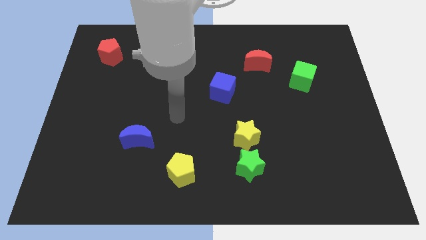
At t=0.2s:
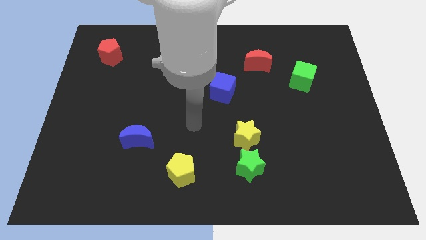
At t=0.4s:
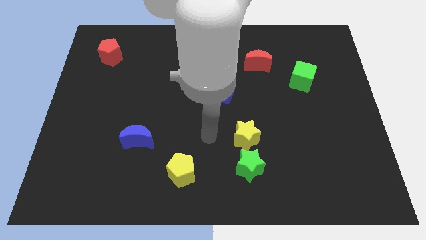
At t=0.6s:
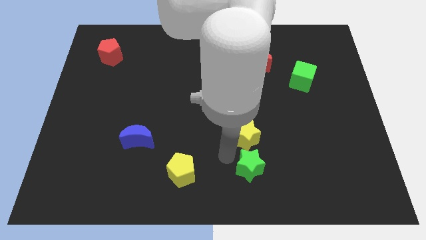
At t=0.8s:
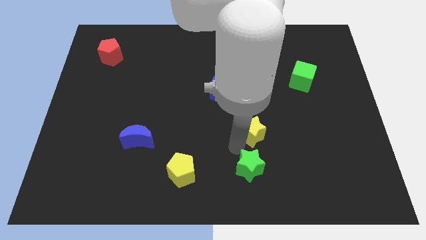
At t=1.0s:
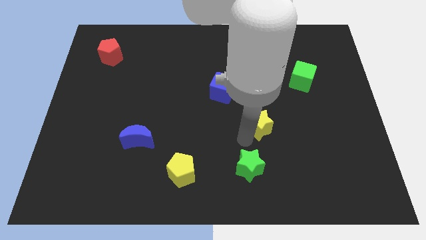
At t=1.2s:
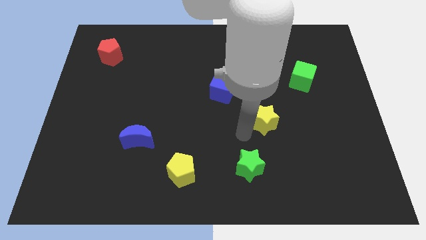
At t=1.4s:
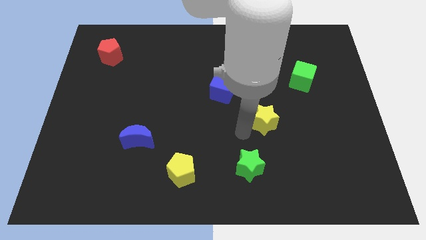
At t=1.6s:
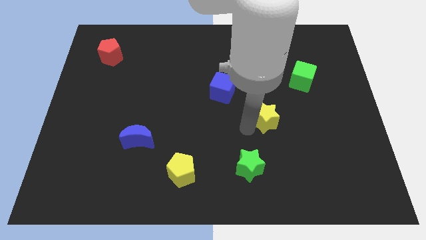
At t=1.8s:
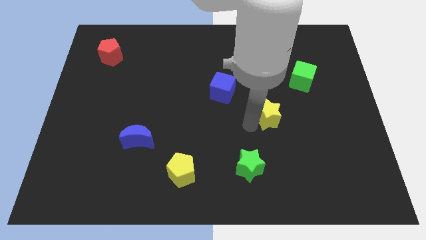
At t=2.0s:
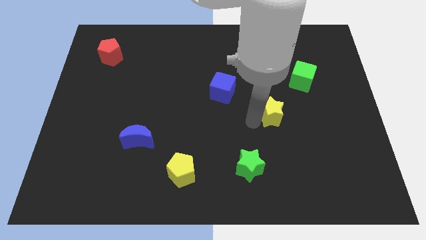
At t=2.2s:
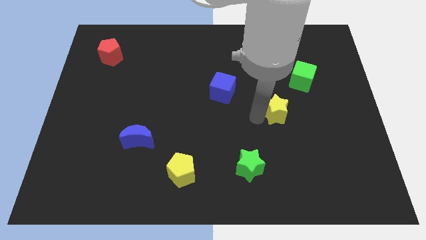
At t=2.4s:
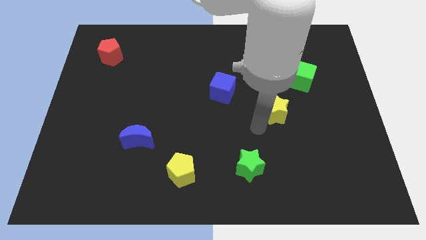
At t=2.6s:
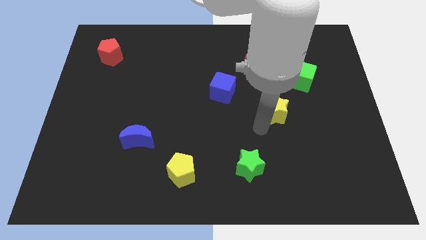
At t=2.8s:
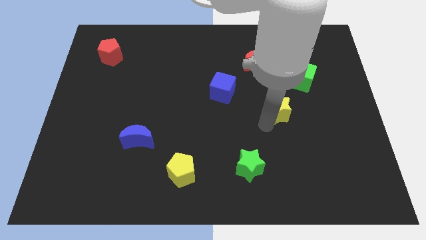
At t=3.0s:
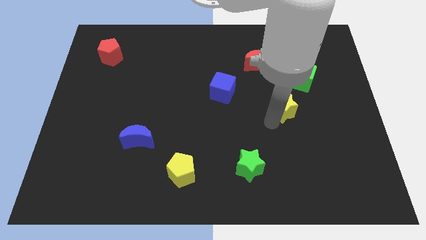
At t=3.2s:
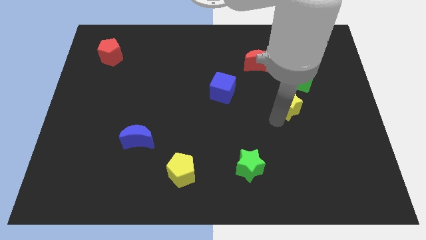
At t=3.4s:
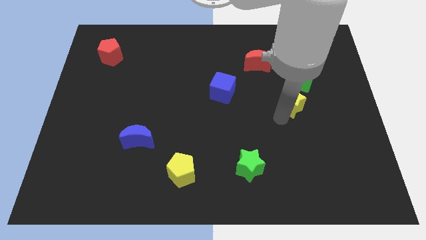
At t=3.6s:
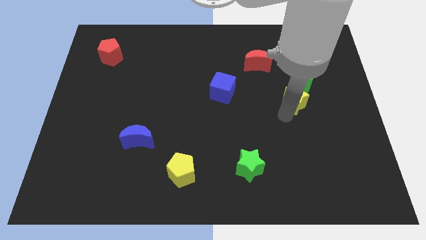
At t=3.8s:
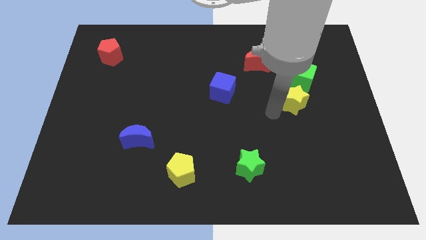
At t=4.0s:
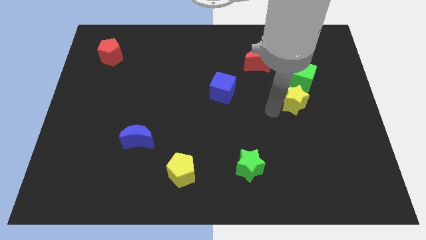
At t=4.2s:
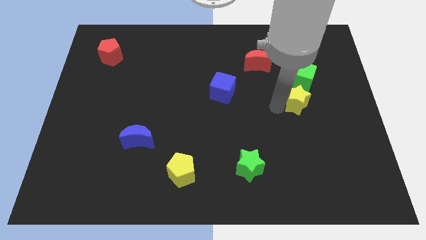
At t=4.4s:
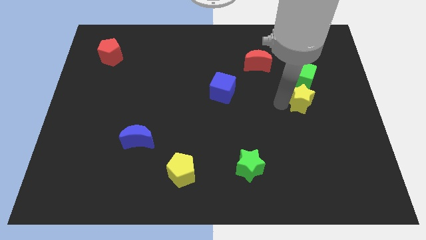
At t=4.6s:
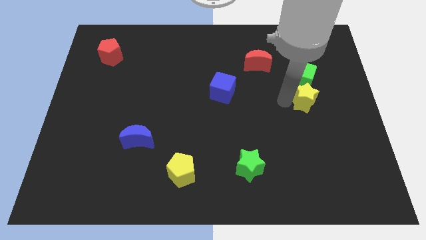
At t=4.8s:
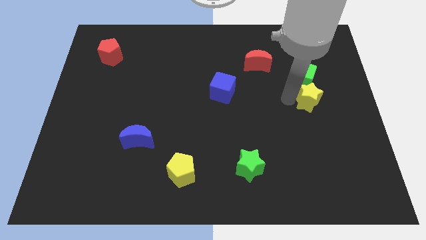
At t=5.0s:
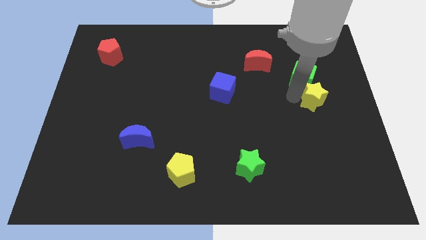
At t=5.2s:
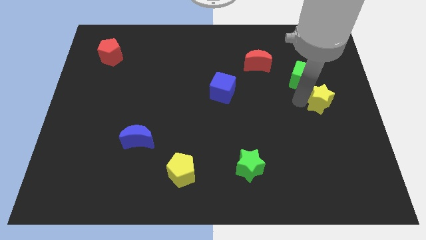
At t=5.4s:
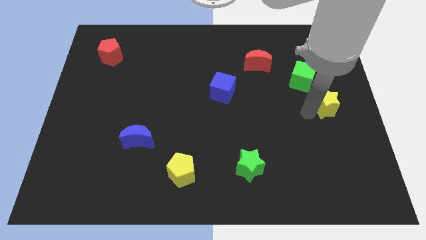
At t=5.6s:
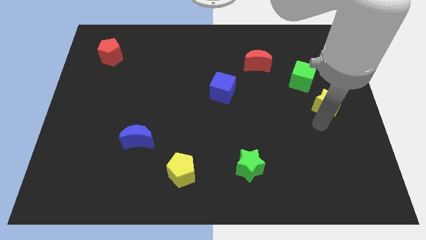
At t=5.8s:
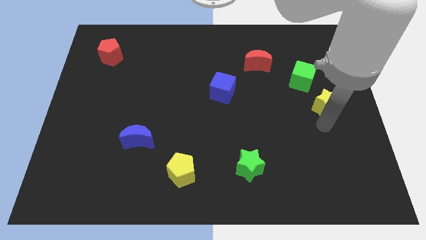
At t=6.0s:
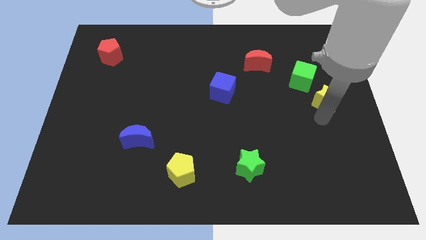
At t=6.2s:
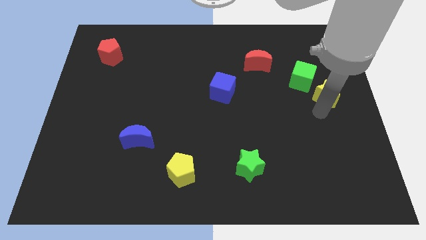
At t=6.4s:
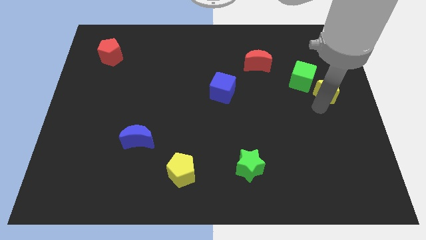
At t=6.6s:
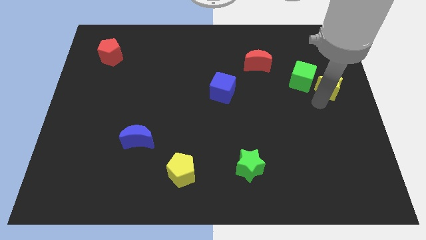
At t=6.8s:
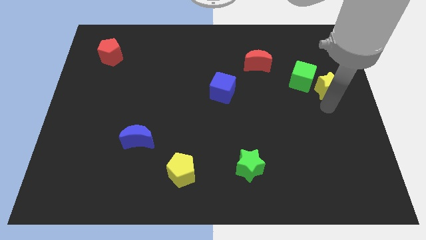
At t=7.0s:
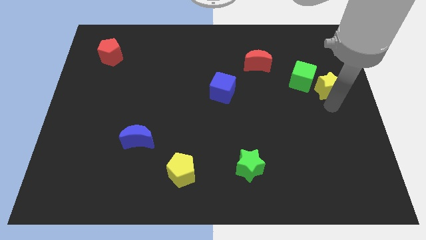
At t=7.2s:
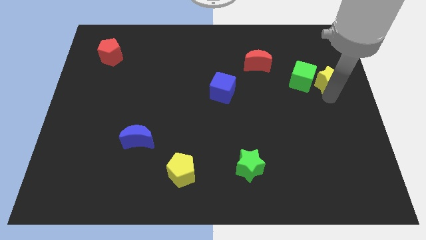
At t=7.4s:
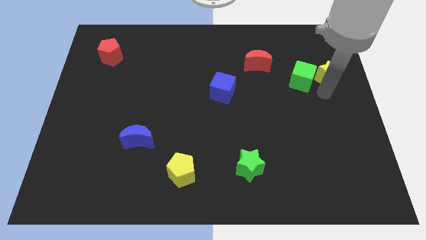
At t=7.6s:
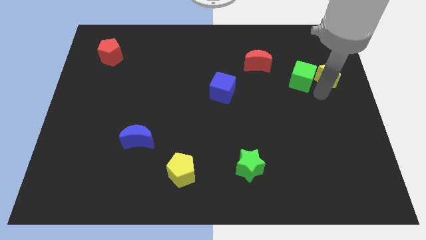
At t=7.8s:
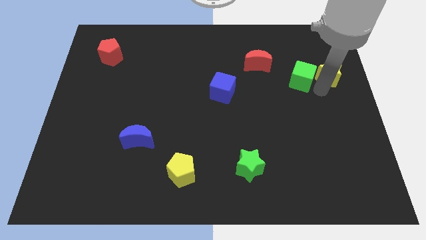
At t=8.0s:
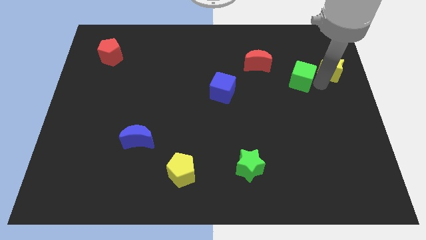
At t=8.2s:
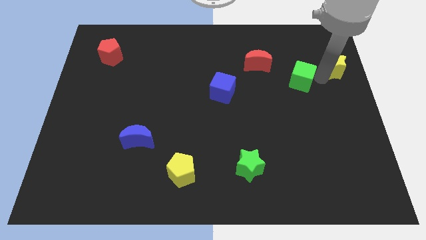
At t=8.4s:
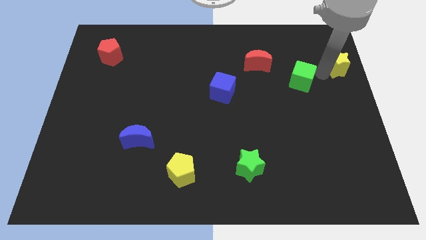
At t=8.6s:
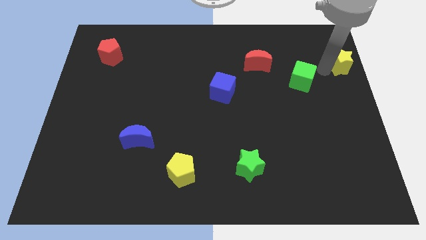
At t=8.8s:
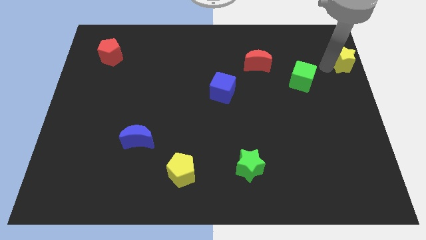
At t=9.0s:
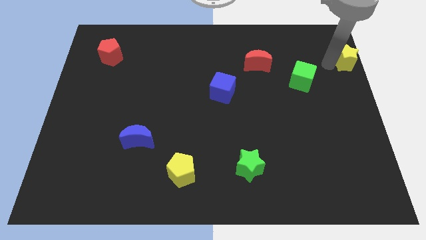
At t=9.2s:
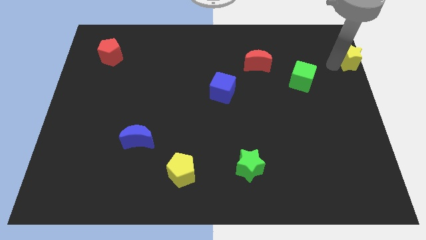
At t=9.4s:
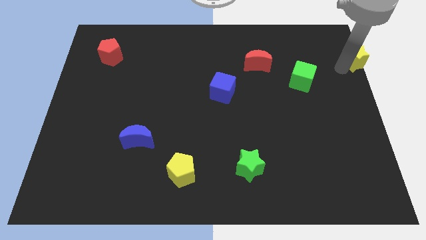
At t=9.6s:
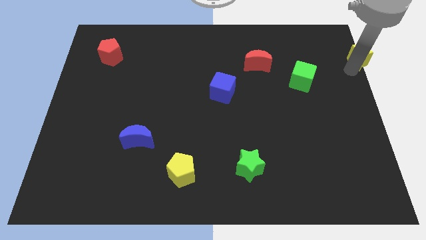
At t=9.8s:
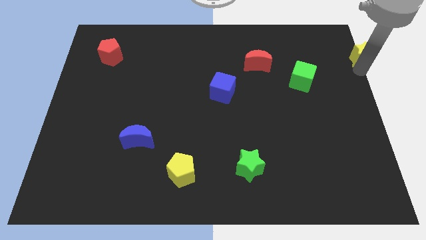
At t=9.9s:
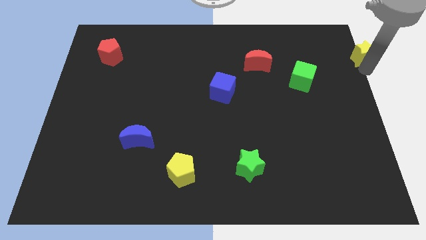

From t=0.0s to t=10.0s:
put the yellow star to the top right

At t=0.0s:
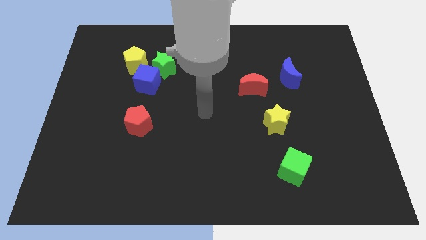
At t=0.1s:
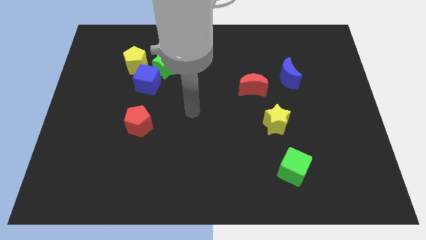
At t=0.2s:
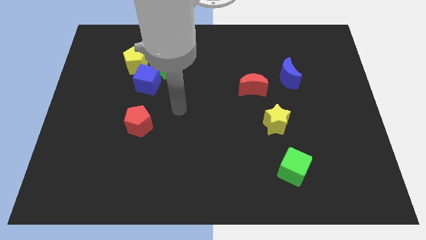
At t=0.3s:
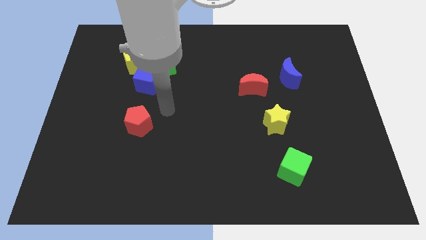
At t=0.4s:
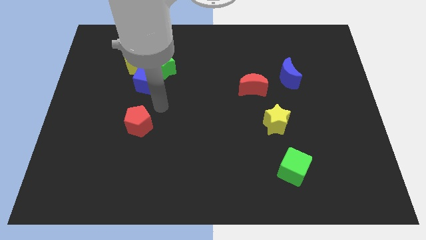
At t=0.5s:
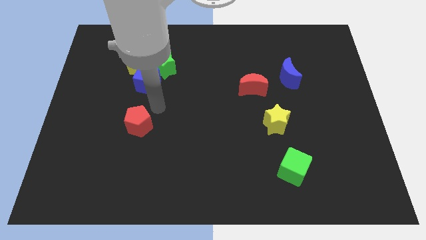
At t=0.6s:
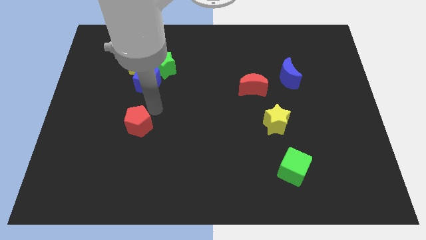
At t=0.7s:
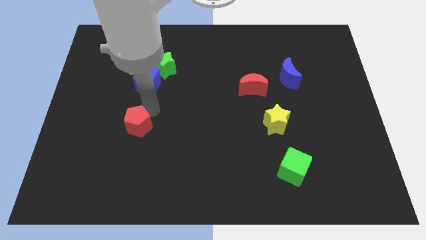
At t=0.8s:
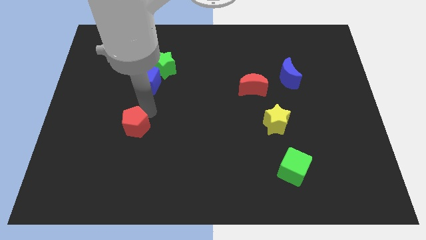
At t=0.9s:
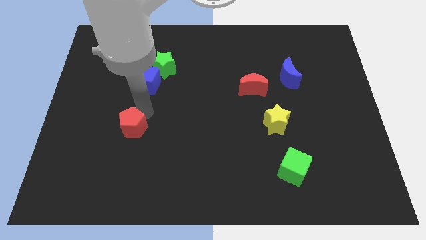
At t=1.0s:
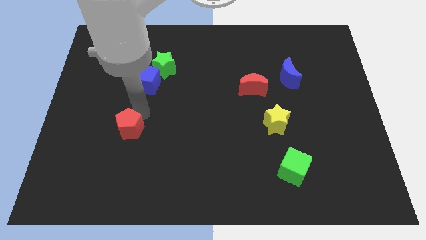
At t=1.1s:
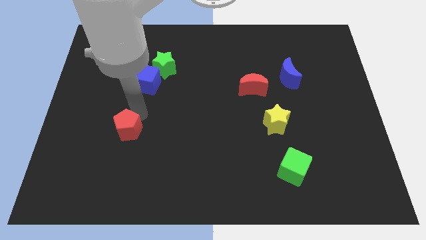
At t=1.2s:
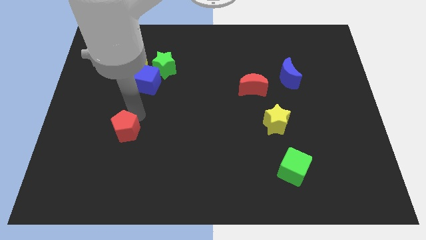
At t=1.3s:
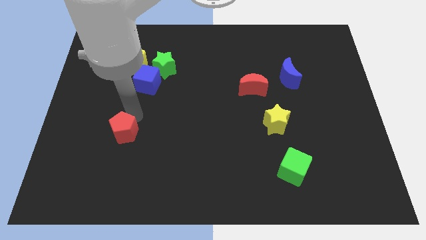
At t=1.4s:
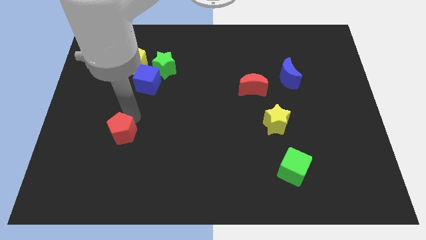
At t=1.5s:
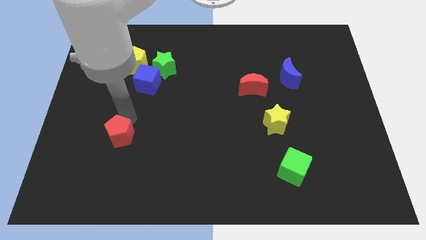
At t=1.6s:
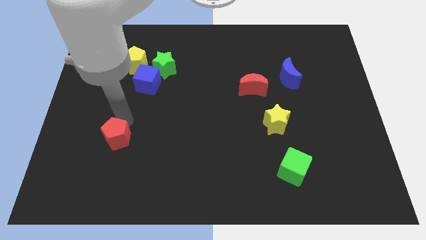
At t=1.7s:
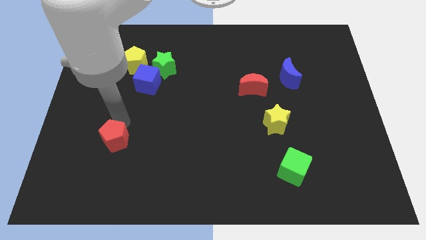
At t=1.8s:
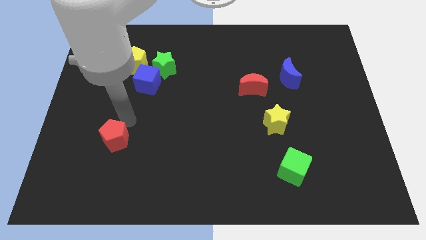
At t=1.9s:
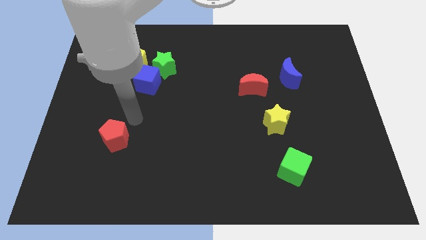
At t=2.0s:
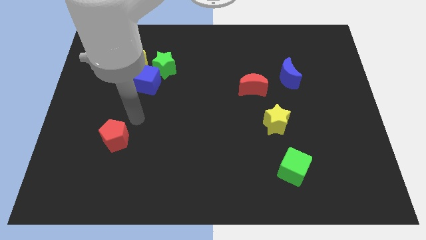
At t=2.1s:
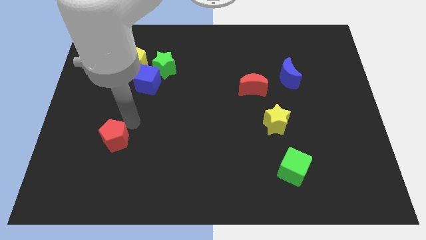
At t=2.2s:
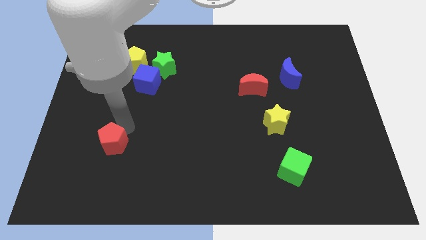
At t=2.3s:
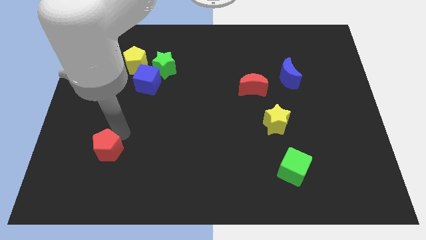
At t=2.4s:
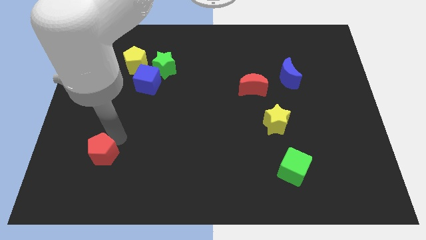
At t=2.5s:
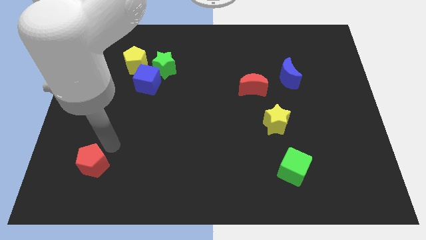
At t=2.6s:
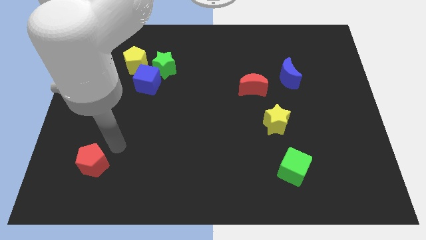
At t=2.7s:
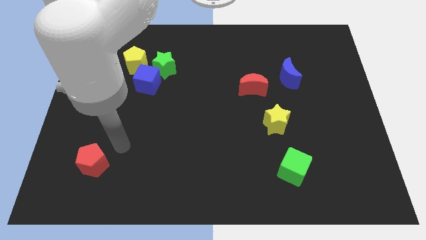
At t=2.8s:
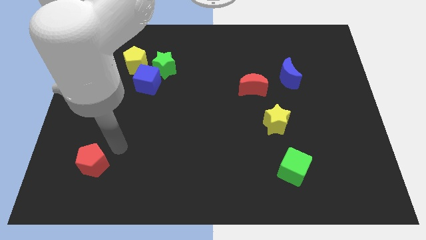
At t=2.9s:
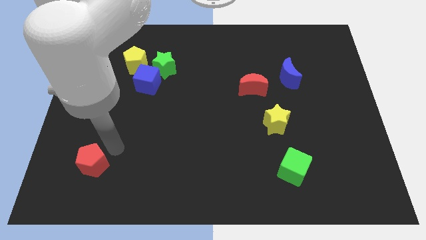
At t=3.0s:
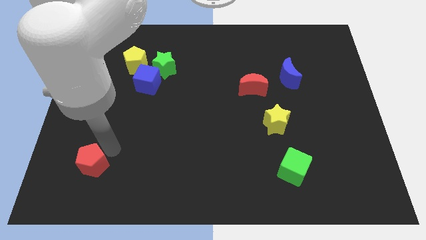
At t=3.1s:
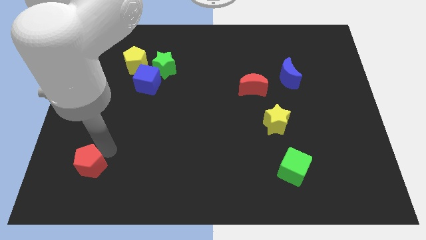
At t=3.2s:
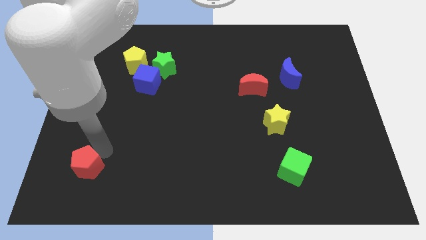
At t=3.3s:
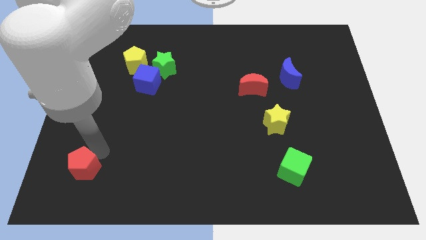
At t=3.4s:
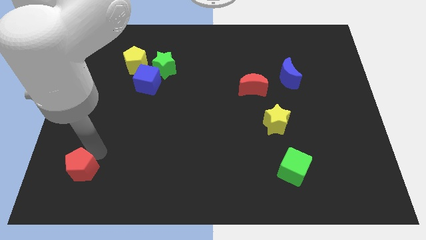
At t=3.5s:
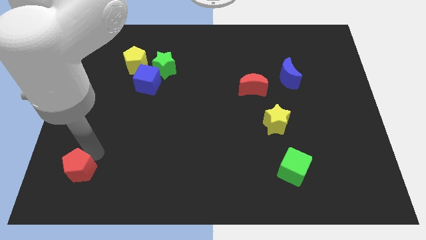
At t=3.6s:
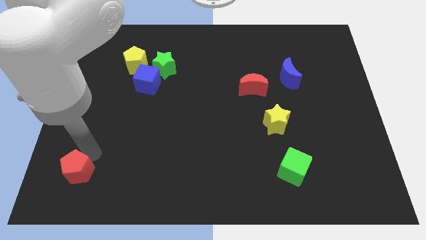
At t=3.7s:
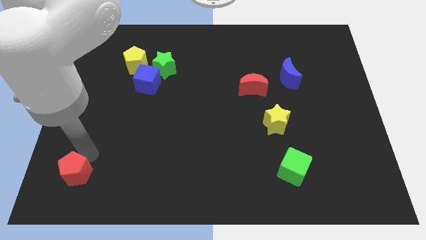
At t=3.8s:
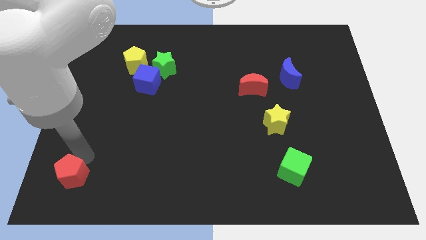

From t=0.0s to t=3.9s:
slide the red pentagon to the bottom left of the board
